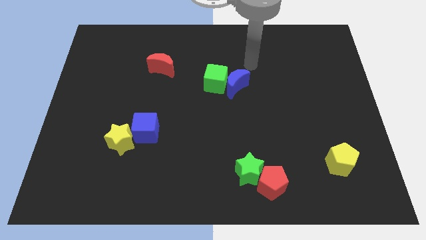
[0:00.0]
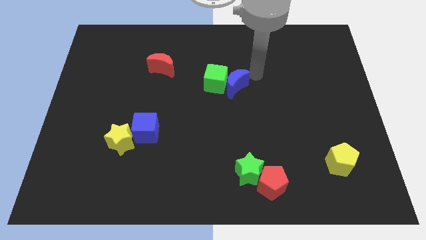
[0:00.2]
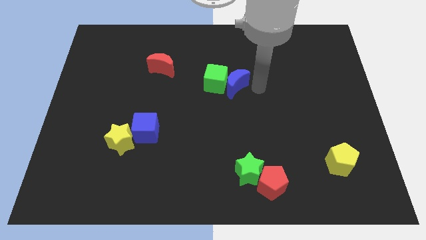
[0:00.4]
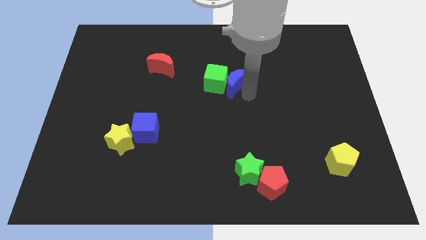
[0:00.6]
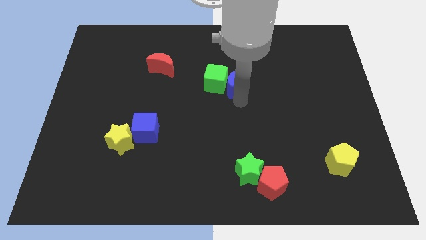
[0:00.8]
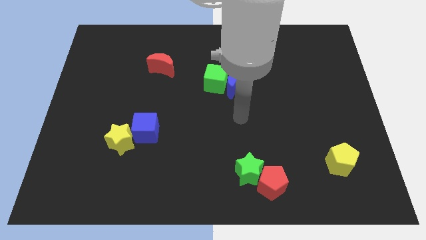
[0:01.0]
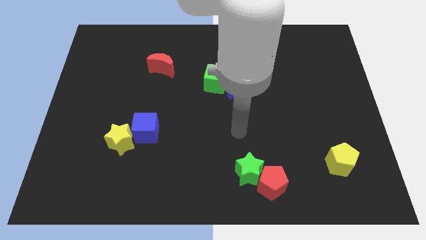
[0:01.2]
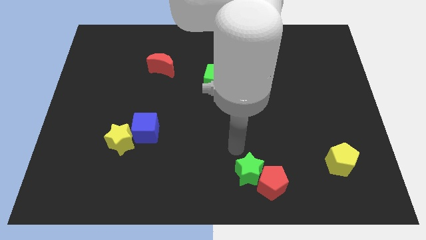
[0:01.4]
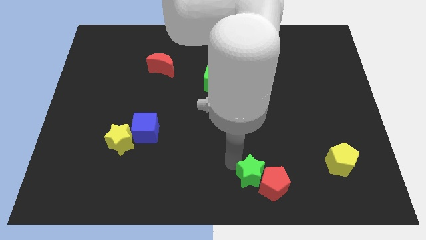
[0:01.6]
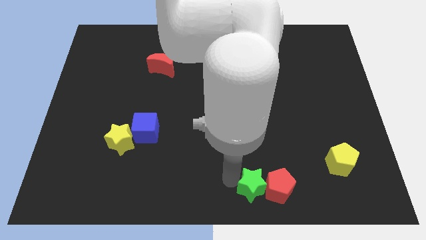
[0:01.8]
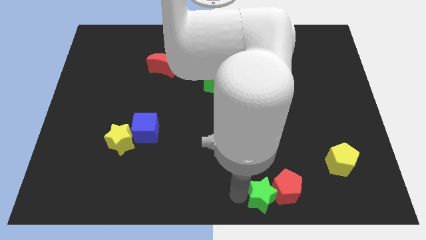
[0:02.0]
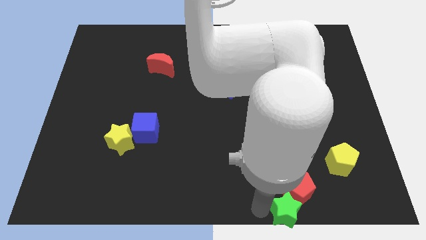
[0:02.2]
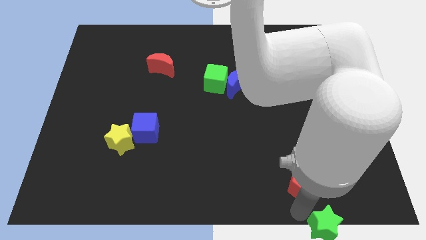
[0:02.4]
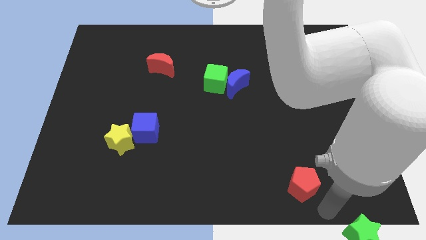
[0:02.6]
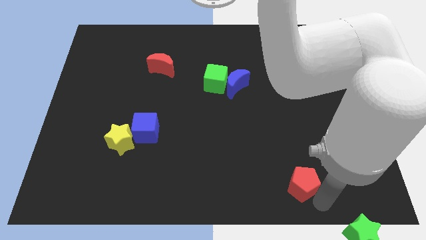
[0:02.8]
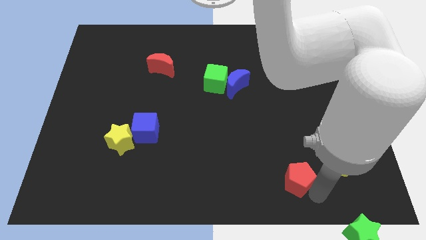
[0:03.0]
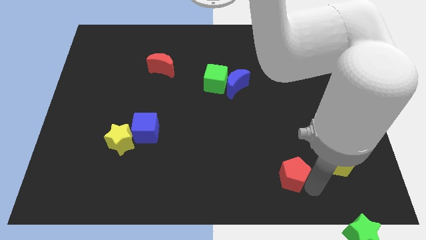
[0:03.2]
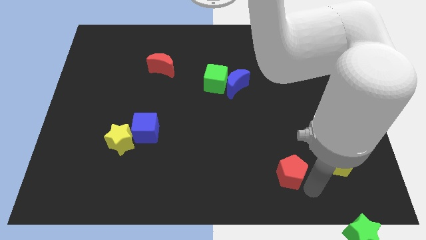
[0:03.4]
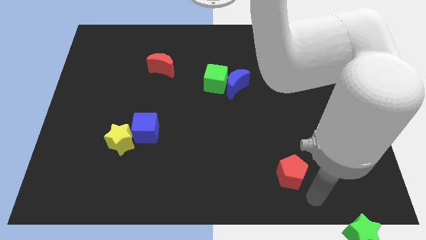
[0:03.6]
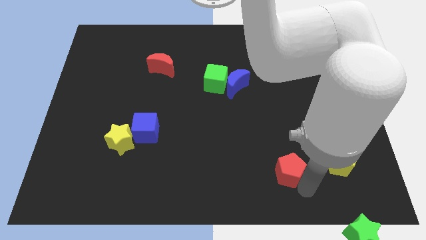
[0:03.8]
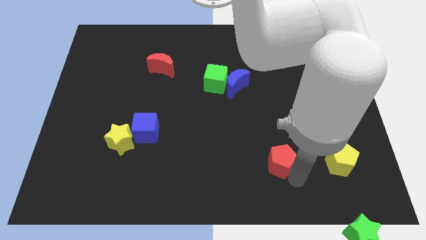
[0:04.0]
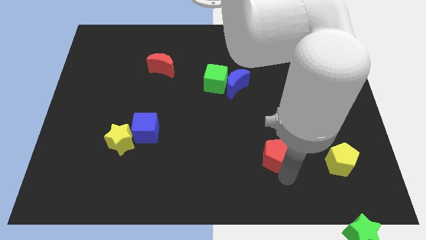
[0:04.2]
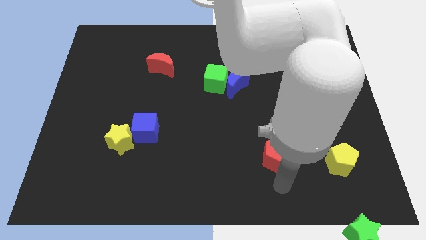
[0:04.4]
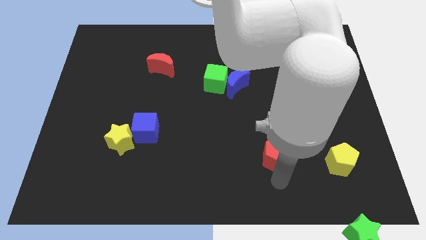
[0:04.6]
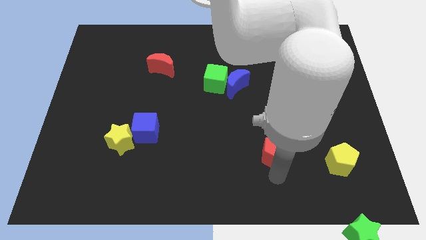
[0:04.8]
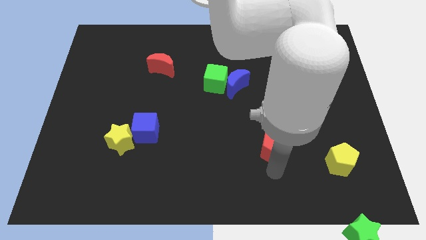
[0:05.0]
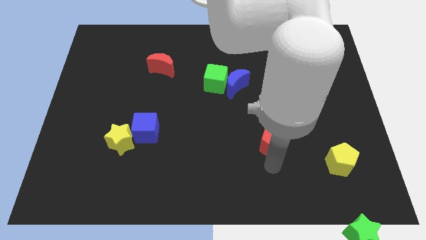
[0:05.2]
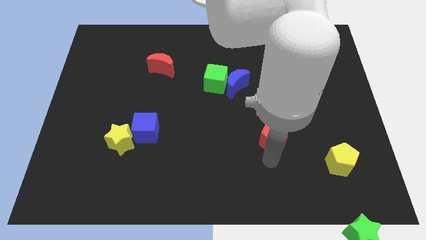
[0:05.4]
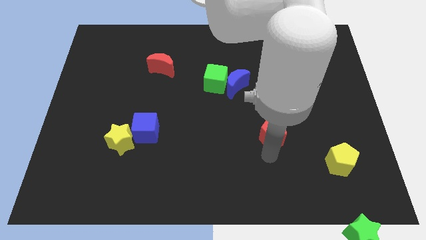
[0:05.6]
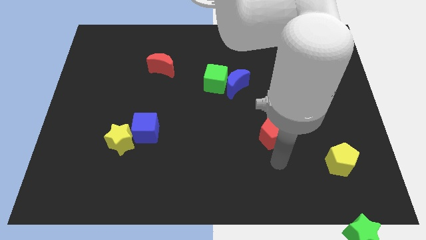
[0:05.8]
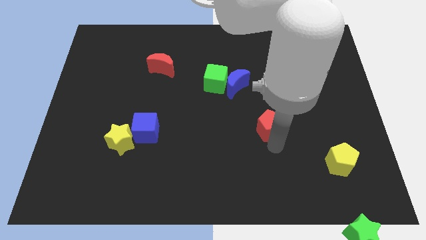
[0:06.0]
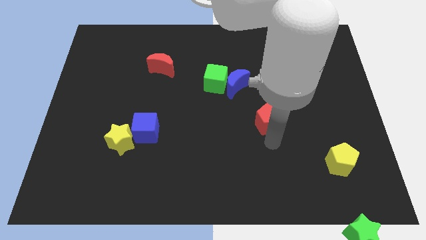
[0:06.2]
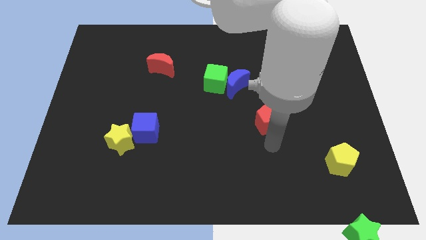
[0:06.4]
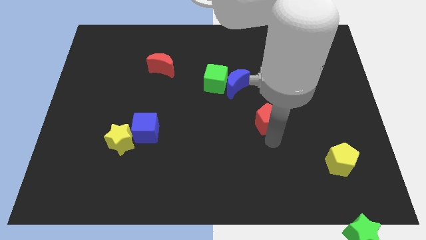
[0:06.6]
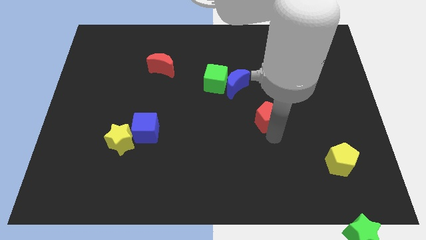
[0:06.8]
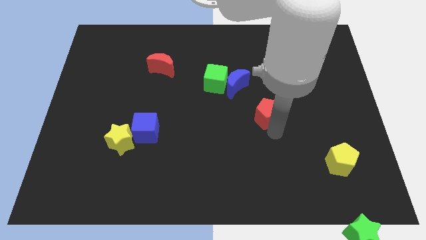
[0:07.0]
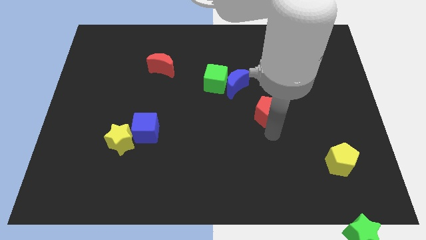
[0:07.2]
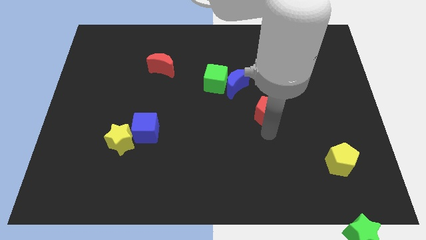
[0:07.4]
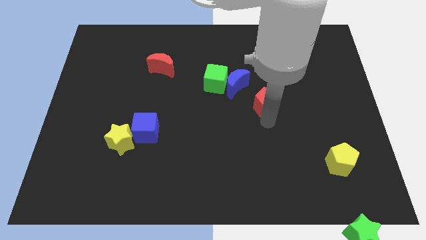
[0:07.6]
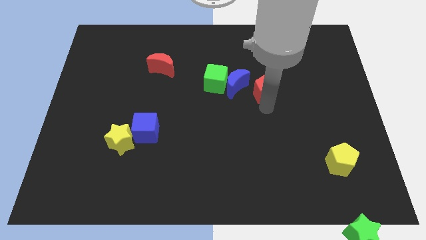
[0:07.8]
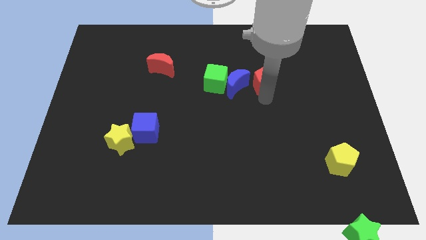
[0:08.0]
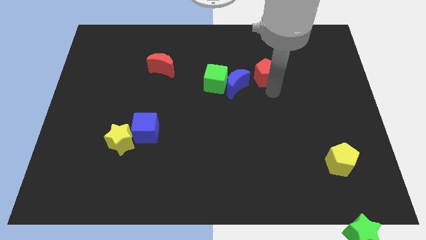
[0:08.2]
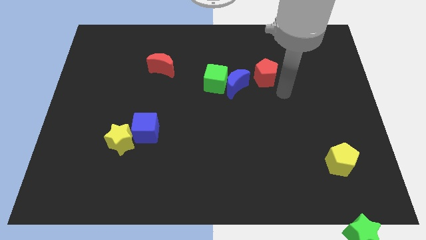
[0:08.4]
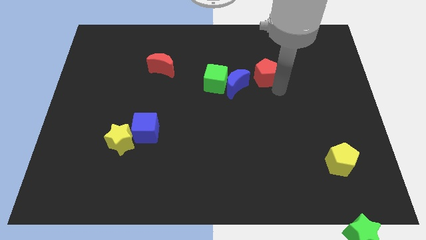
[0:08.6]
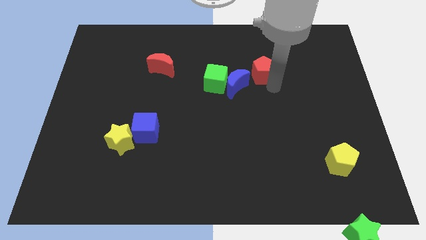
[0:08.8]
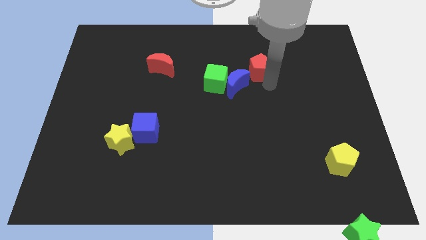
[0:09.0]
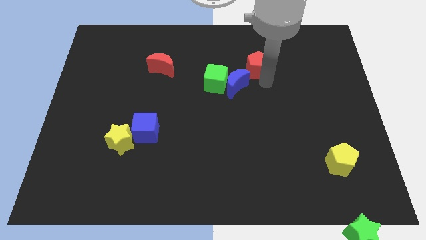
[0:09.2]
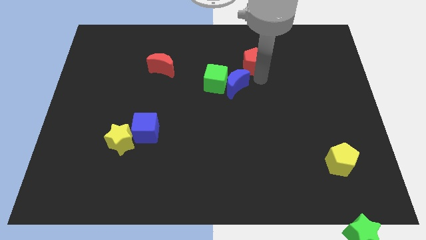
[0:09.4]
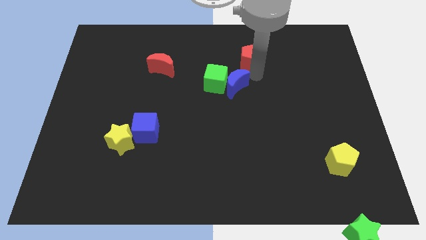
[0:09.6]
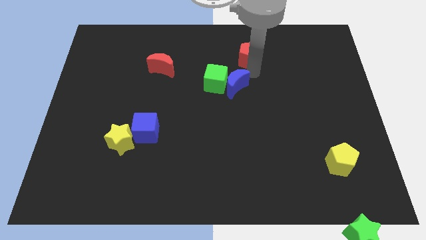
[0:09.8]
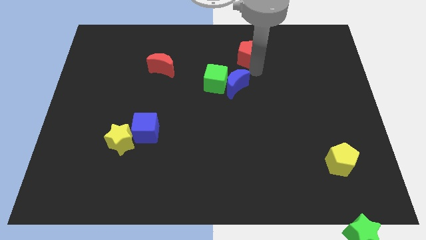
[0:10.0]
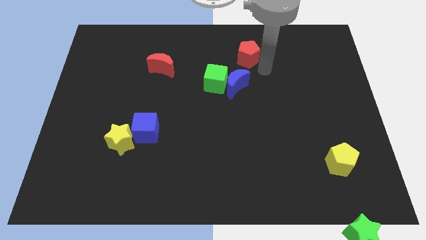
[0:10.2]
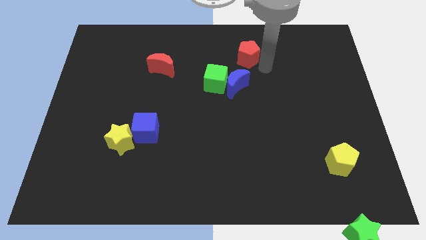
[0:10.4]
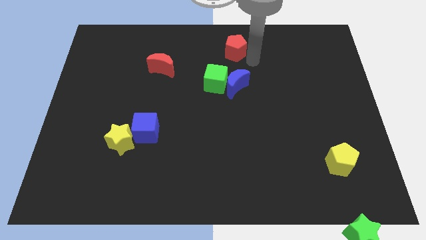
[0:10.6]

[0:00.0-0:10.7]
put the red pentagon to the top

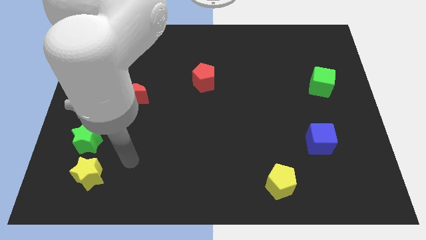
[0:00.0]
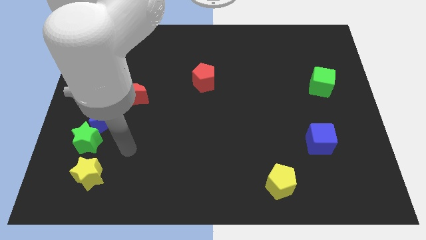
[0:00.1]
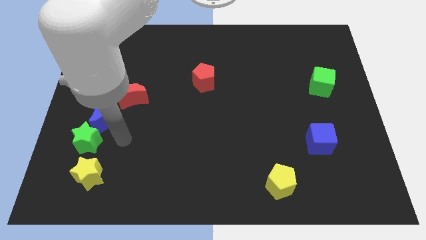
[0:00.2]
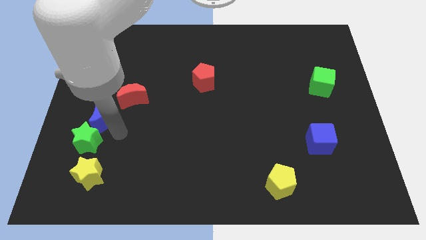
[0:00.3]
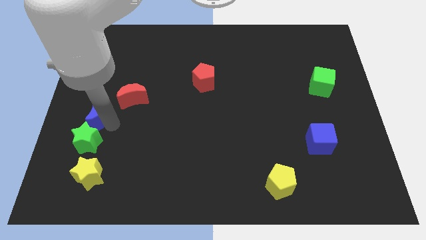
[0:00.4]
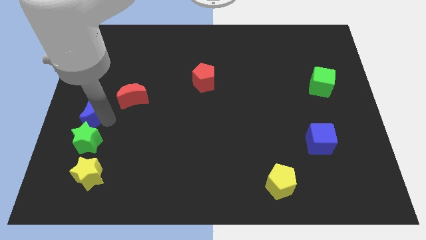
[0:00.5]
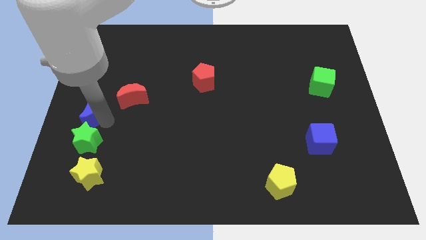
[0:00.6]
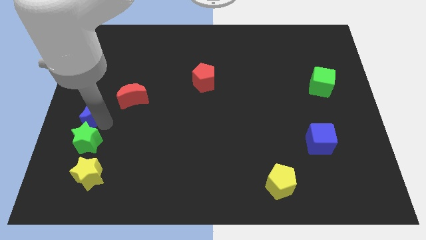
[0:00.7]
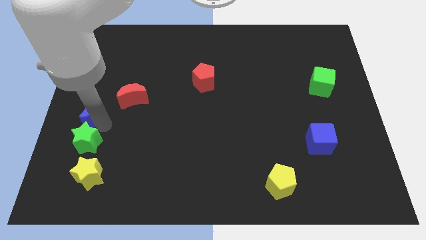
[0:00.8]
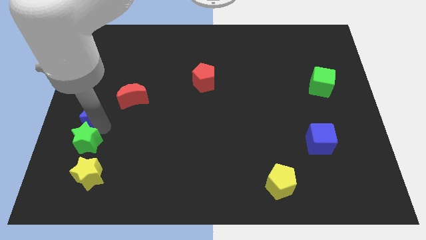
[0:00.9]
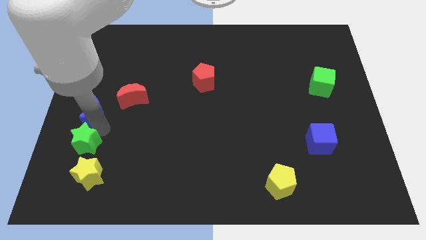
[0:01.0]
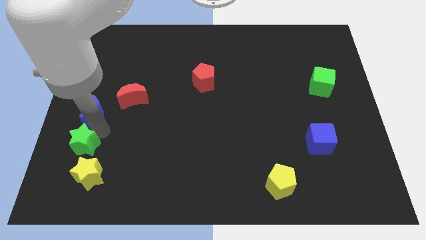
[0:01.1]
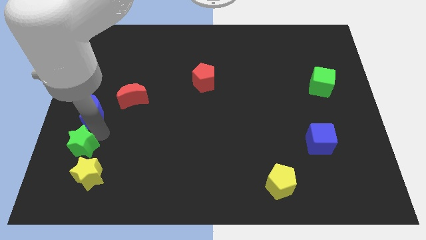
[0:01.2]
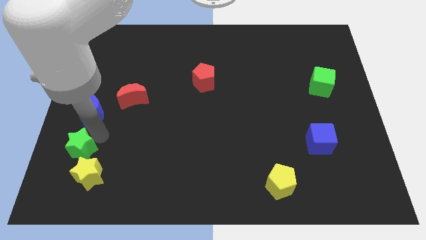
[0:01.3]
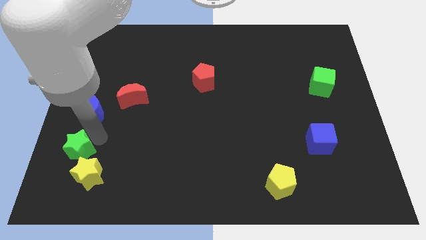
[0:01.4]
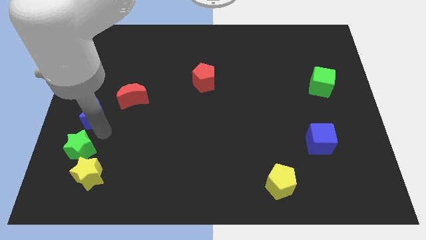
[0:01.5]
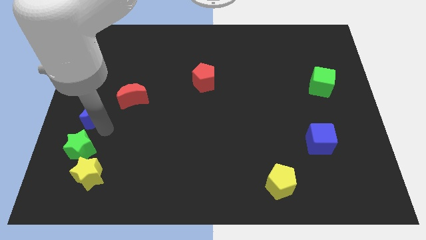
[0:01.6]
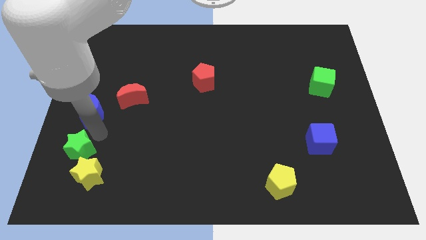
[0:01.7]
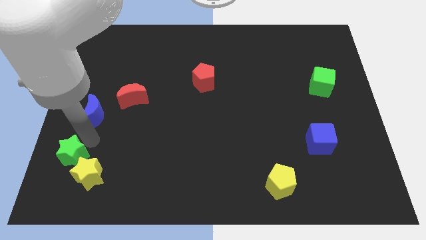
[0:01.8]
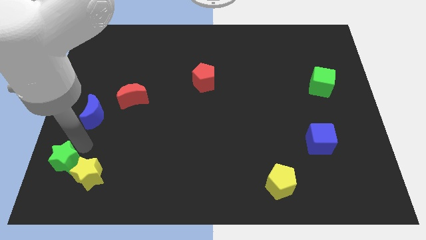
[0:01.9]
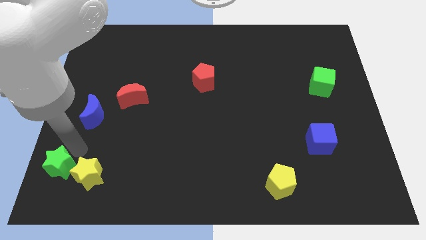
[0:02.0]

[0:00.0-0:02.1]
move the green star to the lower left corner
